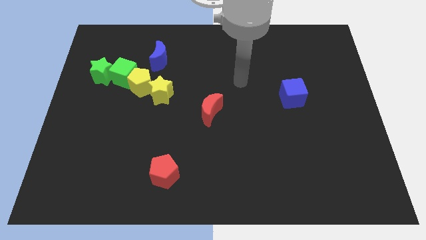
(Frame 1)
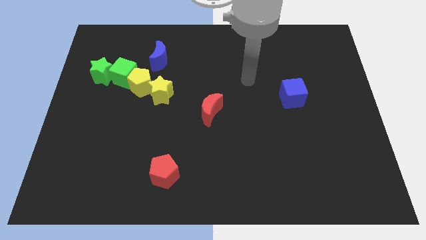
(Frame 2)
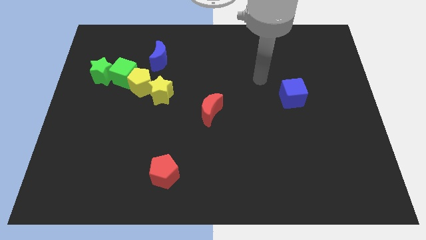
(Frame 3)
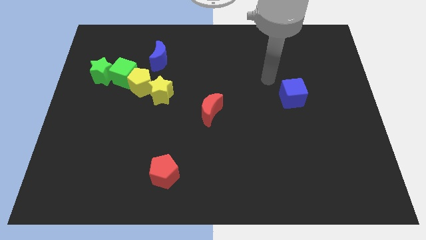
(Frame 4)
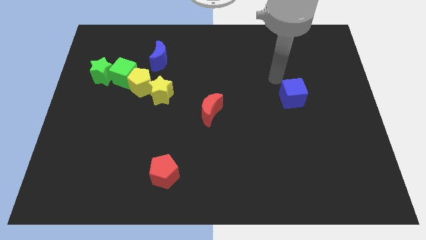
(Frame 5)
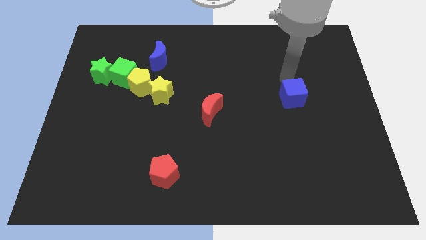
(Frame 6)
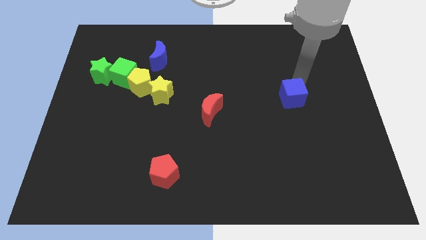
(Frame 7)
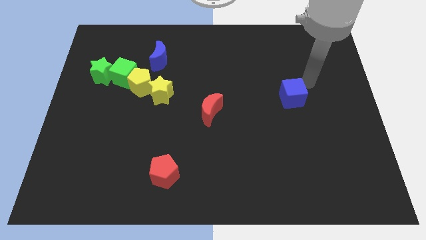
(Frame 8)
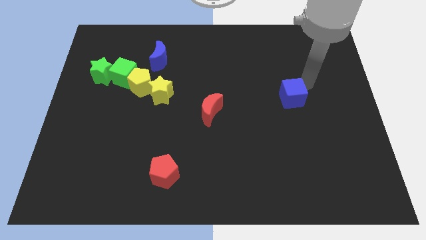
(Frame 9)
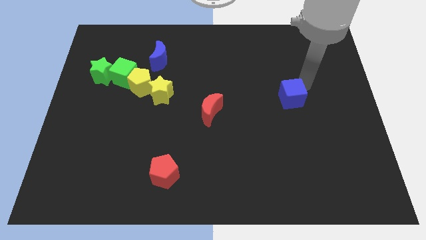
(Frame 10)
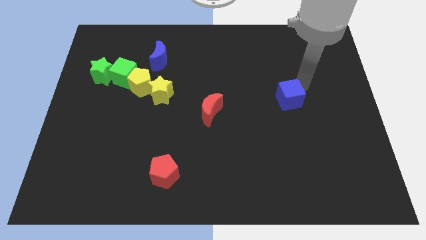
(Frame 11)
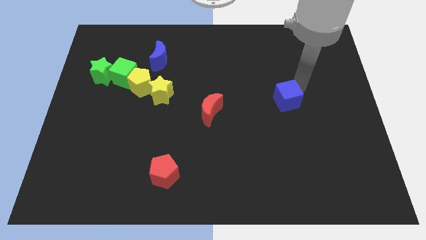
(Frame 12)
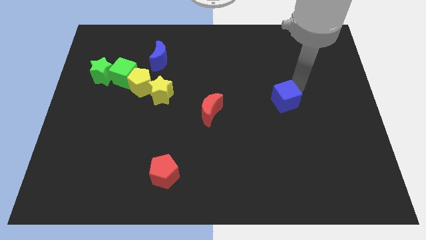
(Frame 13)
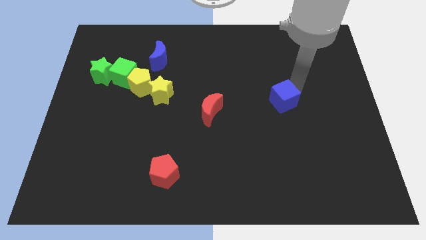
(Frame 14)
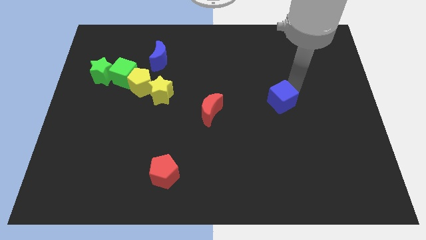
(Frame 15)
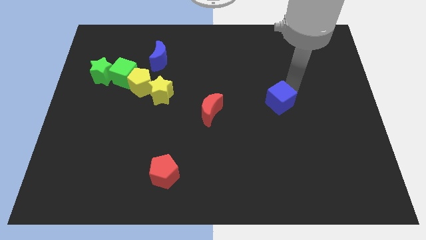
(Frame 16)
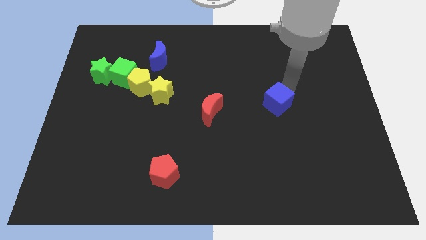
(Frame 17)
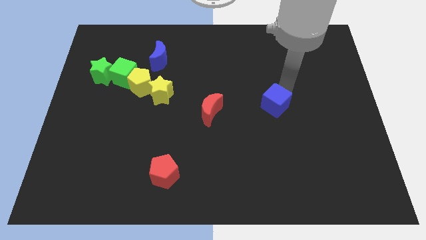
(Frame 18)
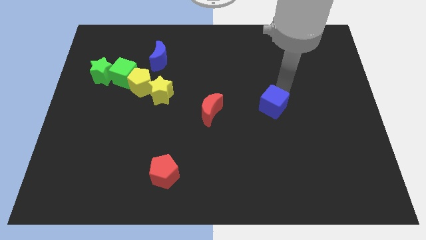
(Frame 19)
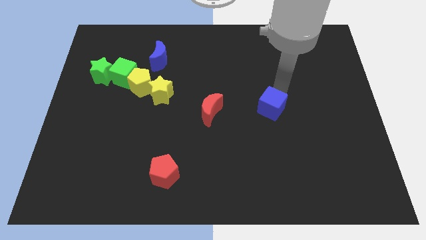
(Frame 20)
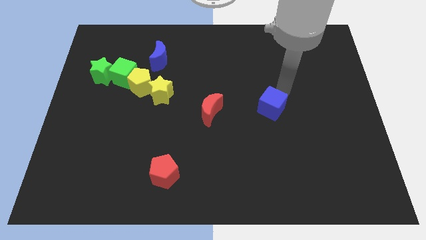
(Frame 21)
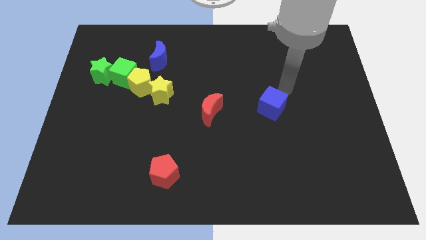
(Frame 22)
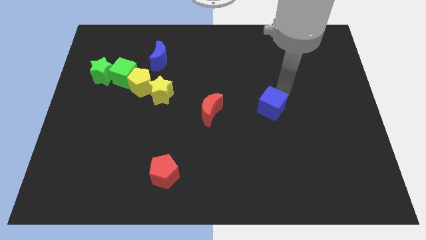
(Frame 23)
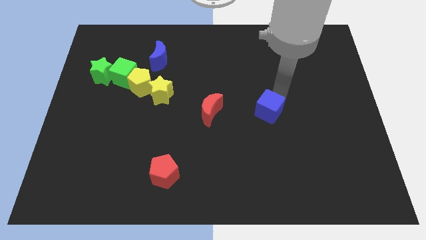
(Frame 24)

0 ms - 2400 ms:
slide the blue cube downwards and to the left a bit

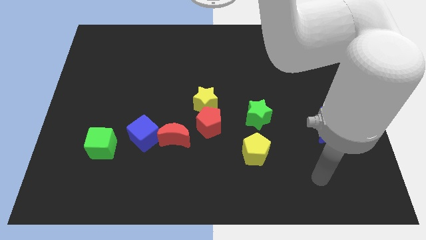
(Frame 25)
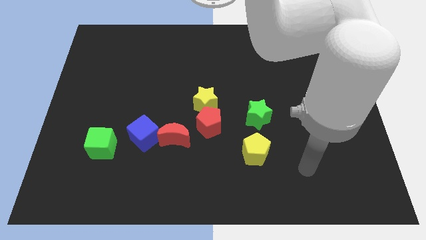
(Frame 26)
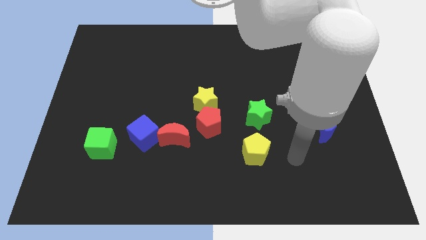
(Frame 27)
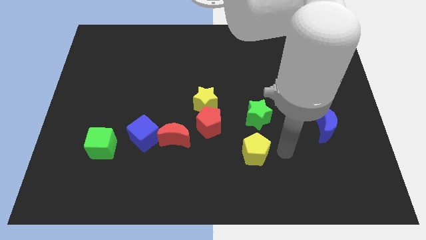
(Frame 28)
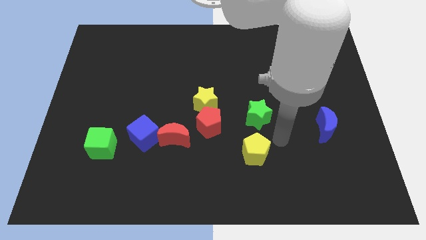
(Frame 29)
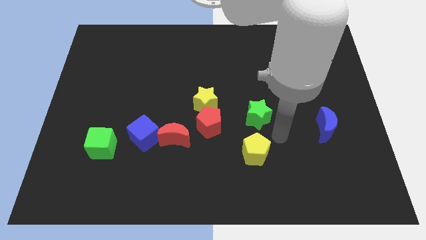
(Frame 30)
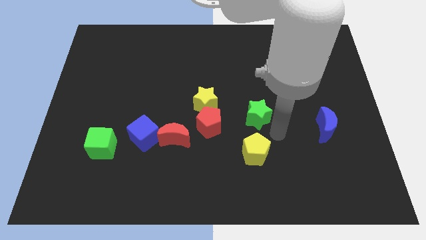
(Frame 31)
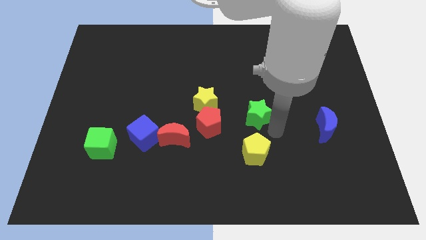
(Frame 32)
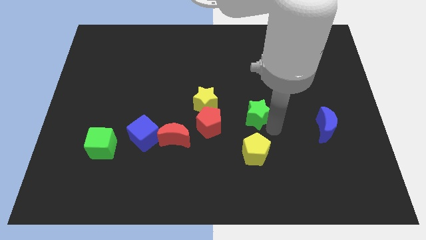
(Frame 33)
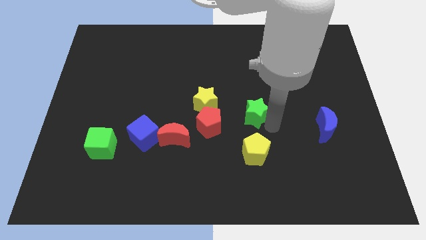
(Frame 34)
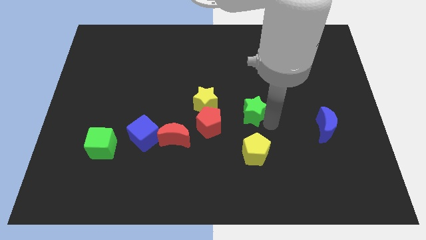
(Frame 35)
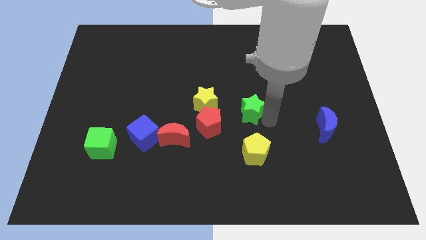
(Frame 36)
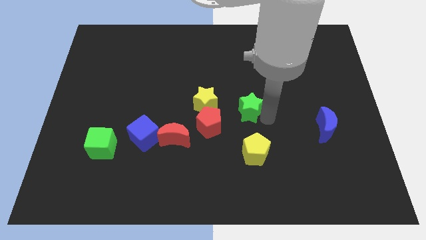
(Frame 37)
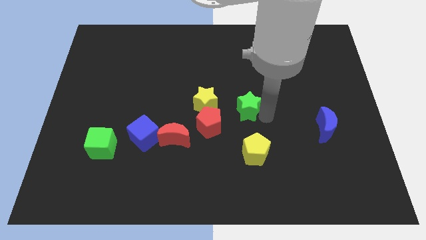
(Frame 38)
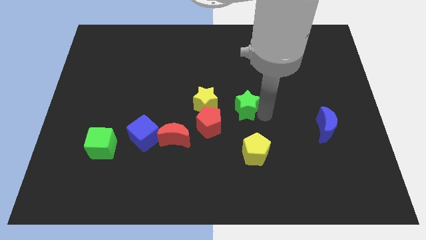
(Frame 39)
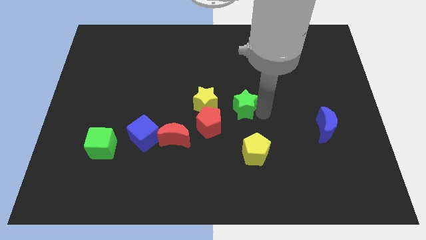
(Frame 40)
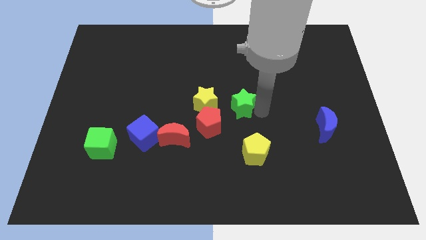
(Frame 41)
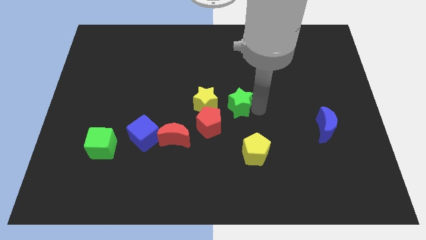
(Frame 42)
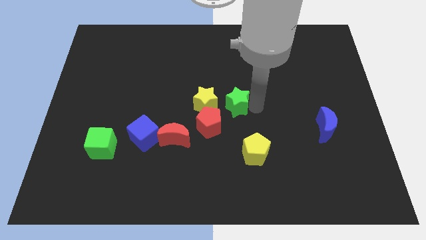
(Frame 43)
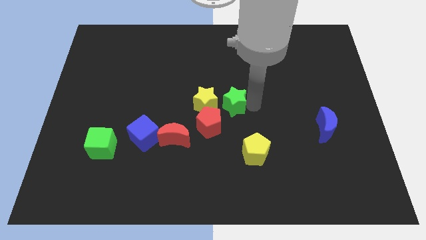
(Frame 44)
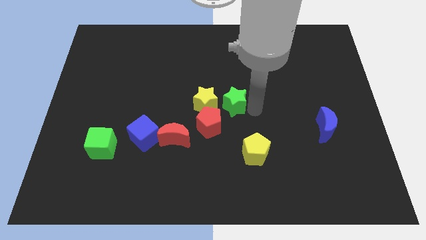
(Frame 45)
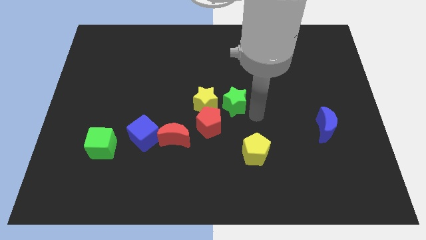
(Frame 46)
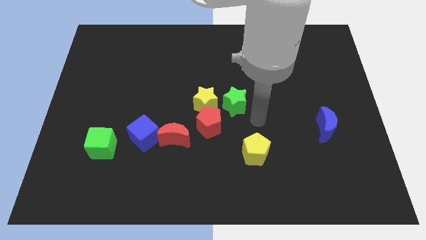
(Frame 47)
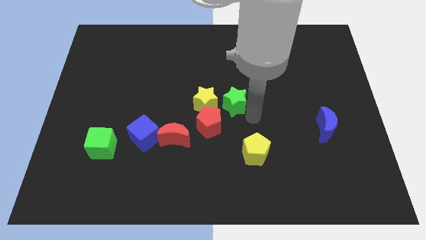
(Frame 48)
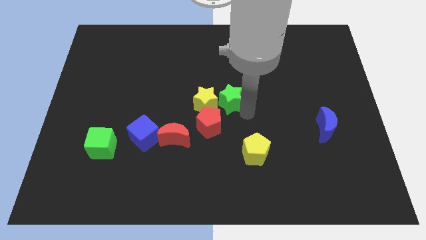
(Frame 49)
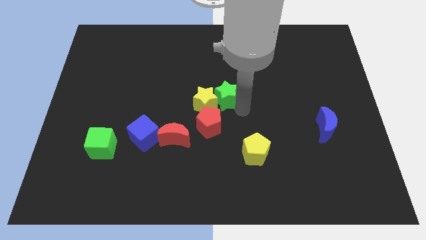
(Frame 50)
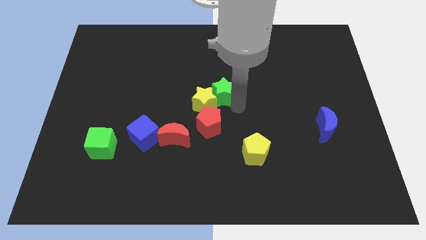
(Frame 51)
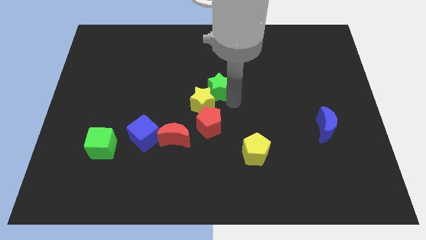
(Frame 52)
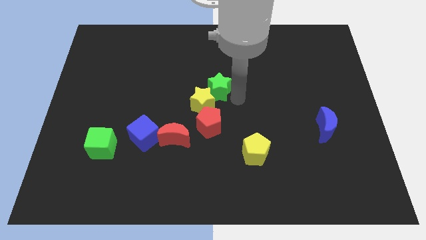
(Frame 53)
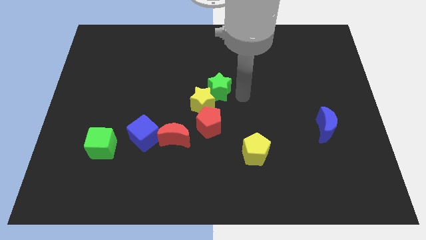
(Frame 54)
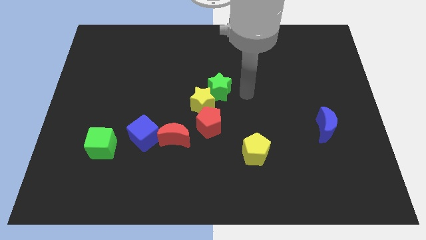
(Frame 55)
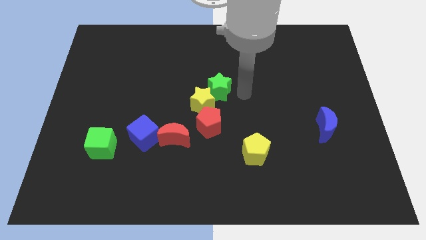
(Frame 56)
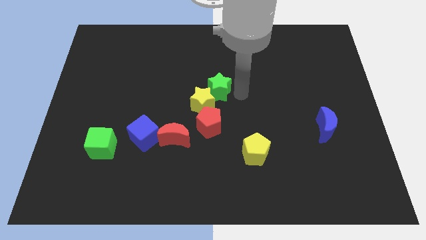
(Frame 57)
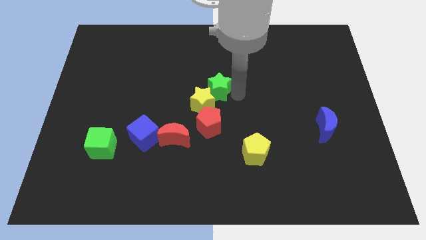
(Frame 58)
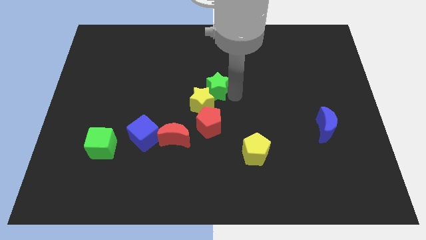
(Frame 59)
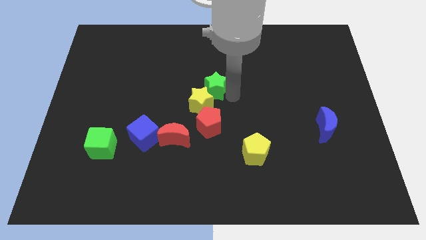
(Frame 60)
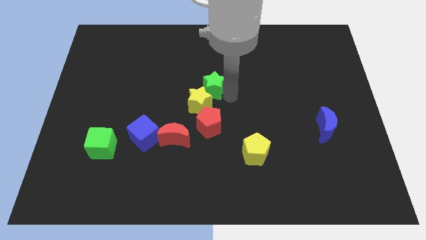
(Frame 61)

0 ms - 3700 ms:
move the green star a little left

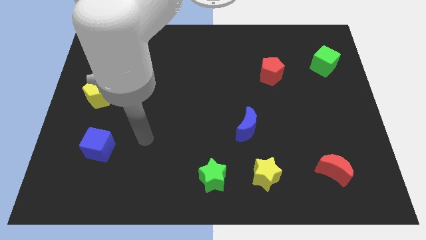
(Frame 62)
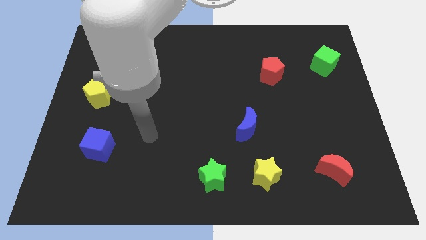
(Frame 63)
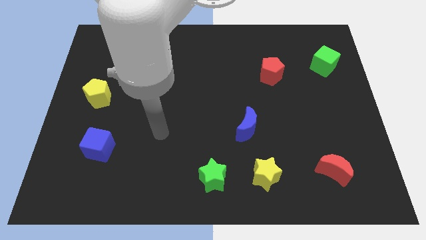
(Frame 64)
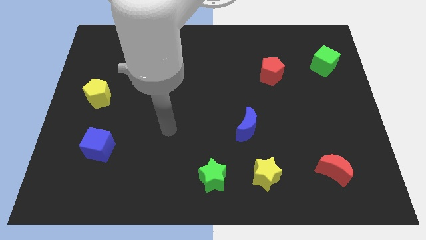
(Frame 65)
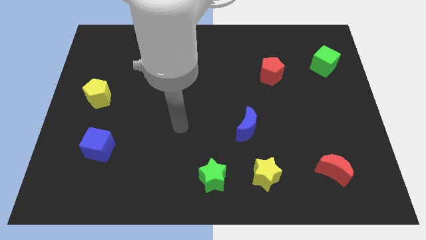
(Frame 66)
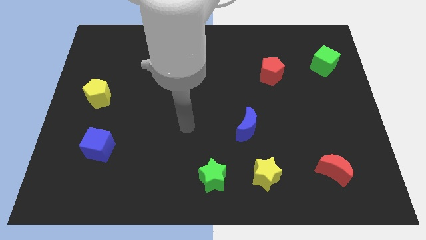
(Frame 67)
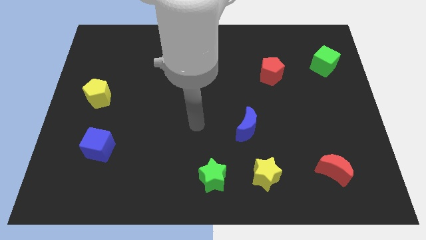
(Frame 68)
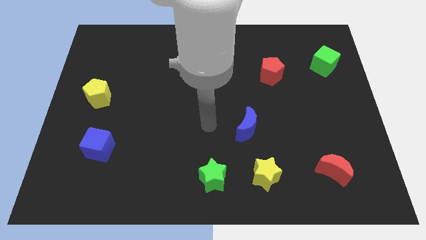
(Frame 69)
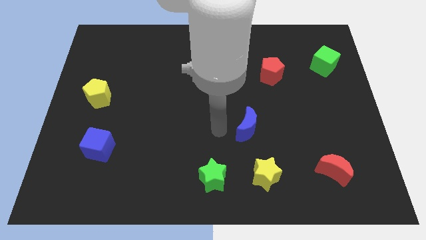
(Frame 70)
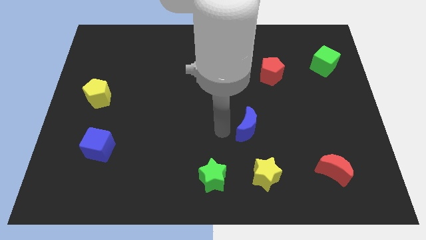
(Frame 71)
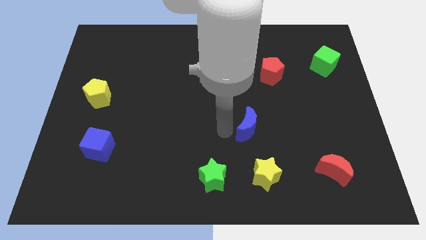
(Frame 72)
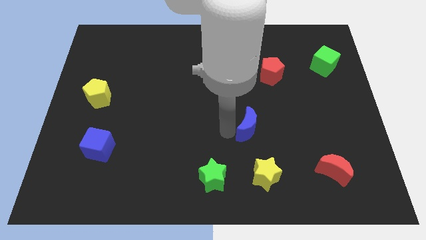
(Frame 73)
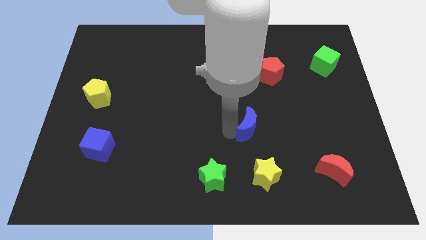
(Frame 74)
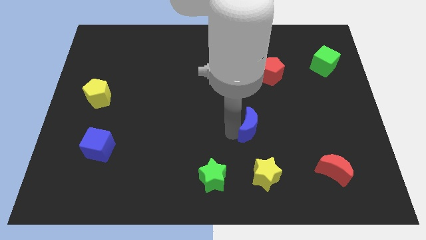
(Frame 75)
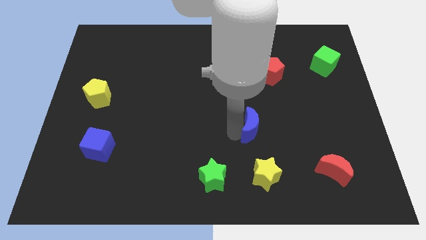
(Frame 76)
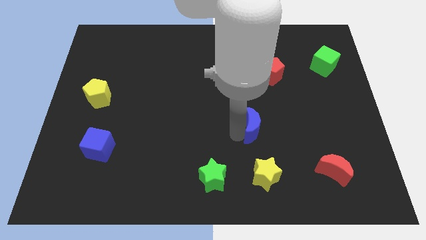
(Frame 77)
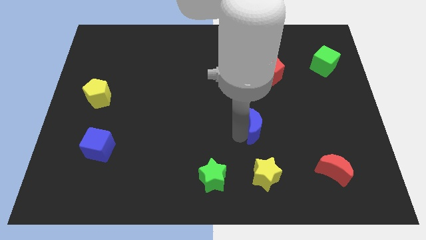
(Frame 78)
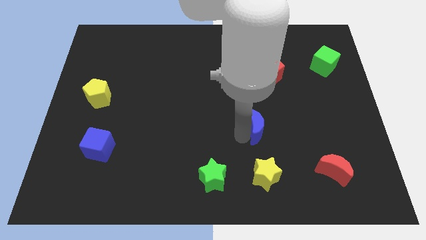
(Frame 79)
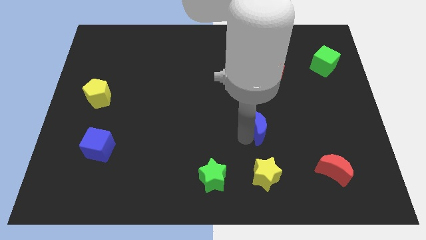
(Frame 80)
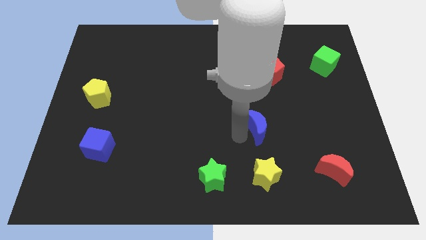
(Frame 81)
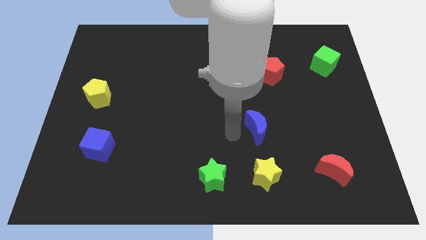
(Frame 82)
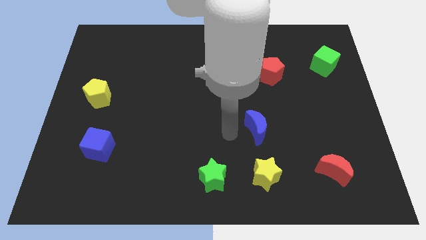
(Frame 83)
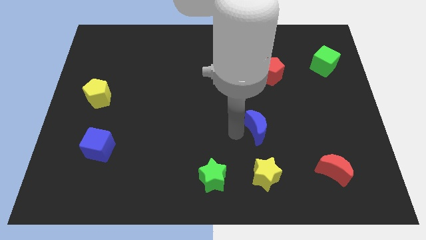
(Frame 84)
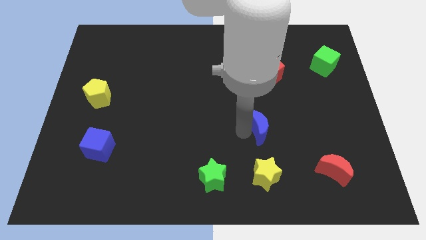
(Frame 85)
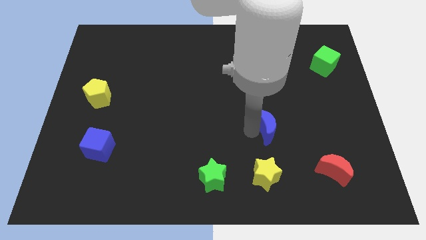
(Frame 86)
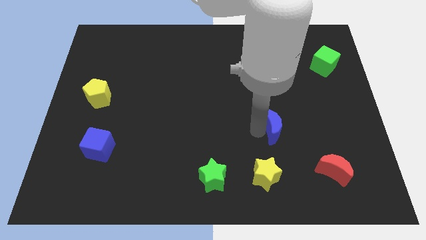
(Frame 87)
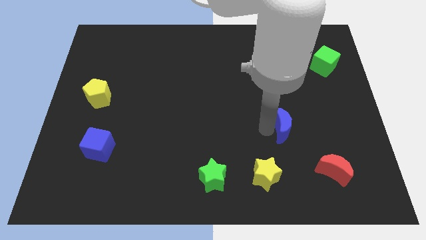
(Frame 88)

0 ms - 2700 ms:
slightly slide the blue moon right
